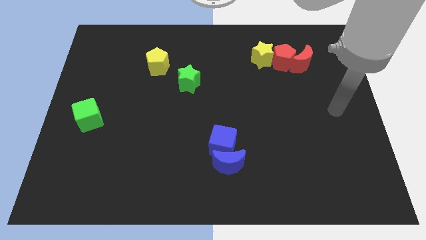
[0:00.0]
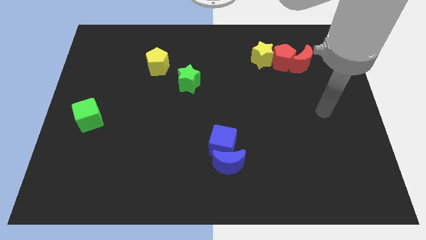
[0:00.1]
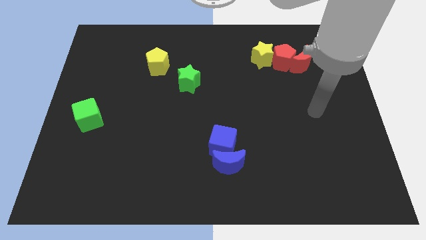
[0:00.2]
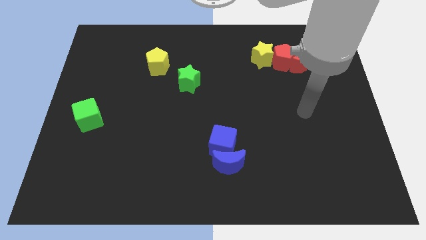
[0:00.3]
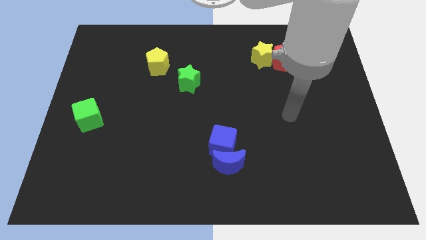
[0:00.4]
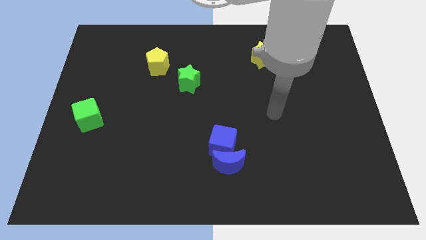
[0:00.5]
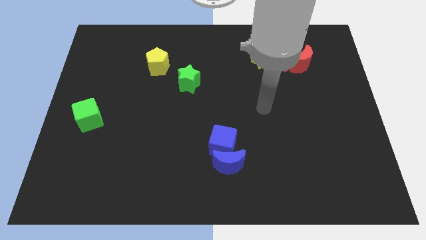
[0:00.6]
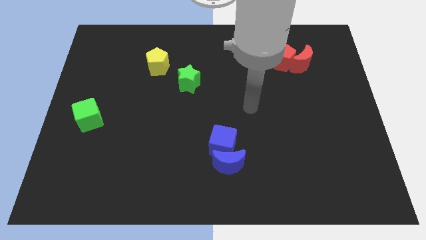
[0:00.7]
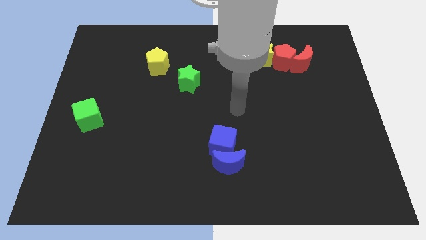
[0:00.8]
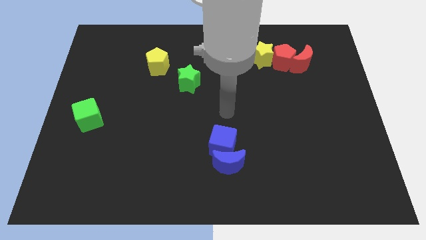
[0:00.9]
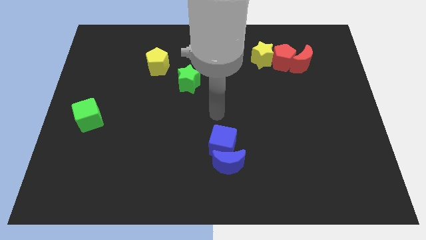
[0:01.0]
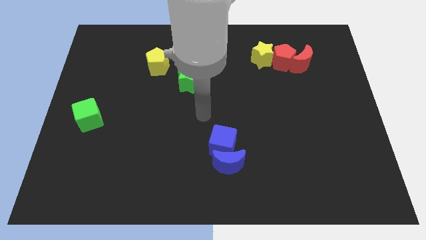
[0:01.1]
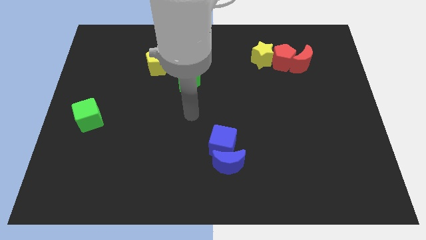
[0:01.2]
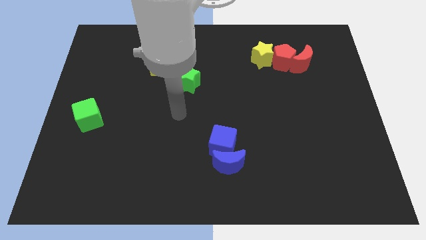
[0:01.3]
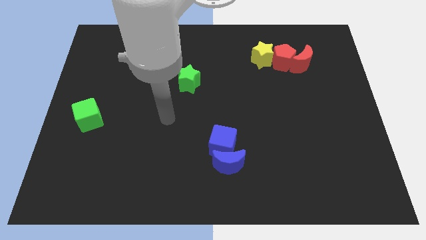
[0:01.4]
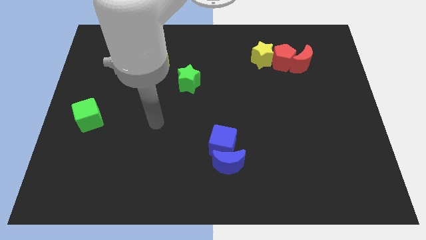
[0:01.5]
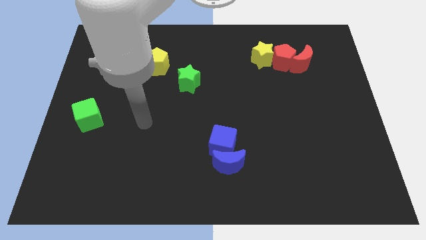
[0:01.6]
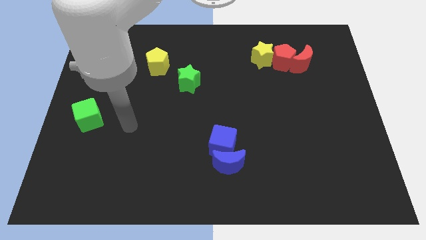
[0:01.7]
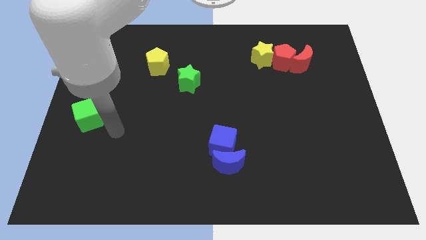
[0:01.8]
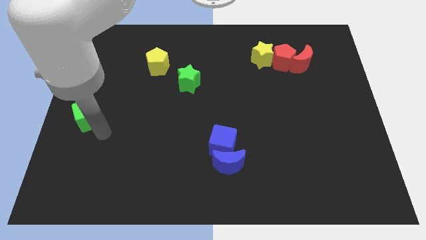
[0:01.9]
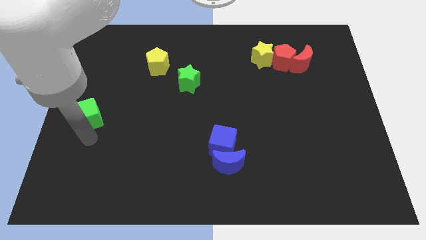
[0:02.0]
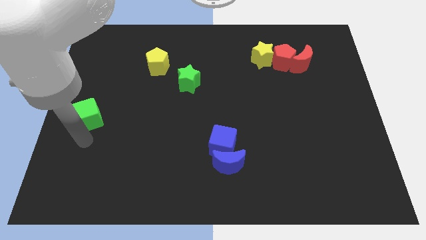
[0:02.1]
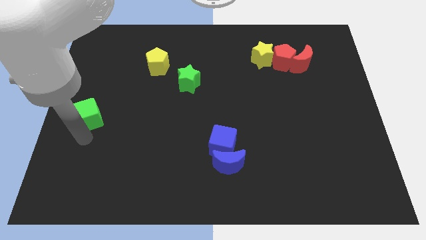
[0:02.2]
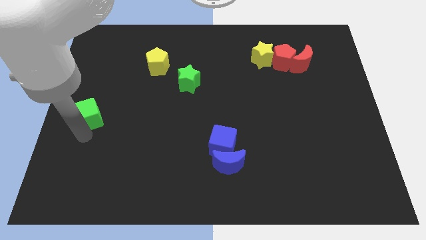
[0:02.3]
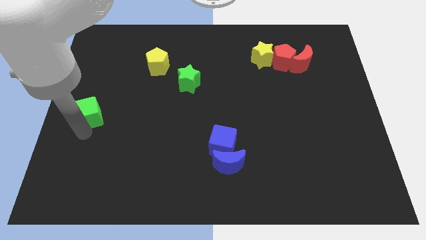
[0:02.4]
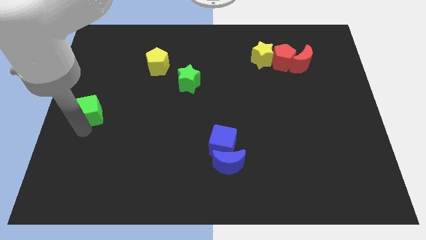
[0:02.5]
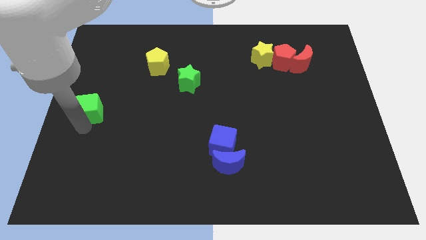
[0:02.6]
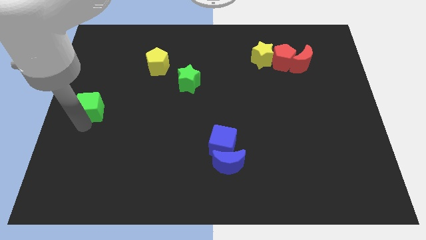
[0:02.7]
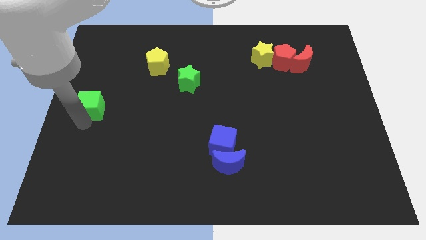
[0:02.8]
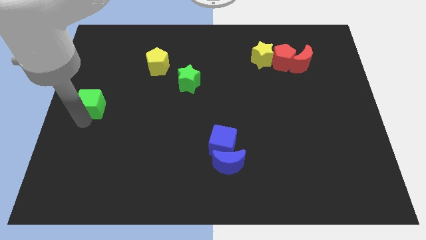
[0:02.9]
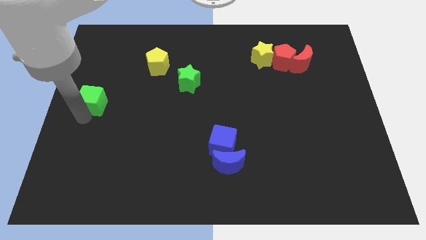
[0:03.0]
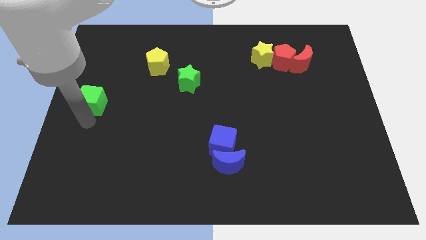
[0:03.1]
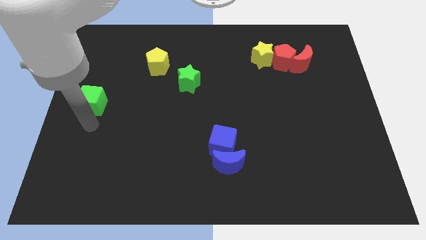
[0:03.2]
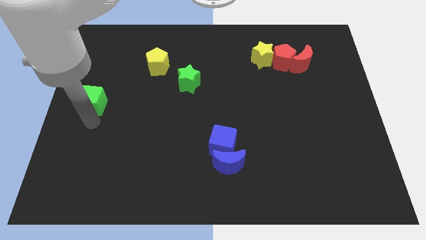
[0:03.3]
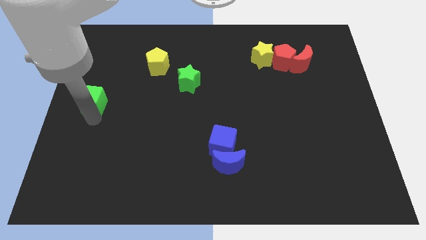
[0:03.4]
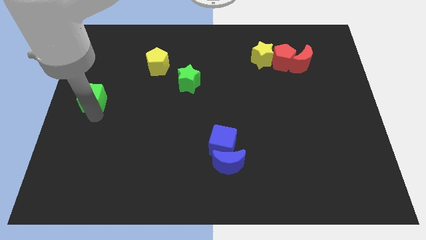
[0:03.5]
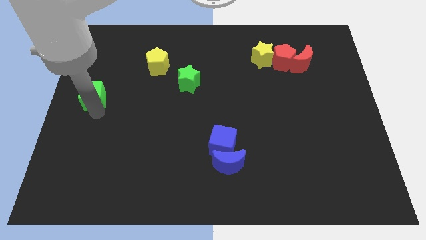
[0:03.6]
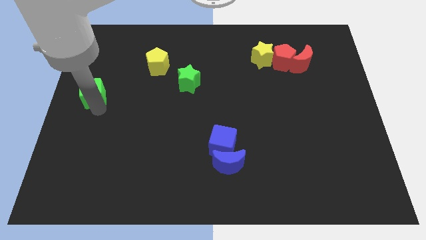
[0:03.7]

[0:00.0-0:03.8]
move the green cube upwards slightly

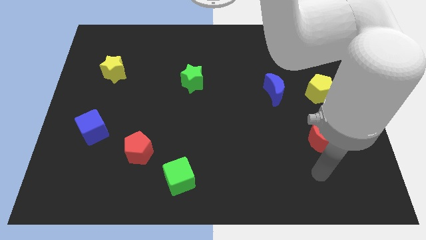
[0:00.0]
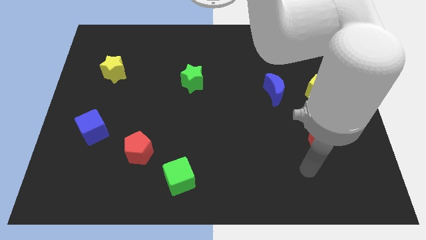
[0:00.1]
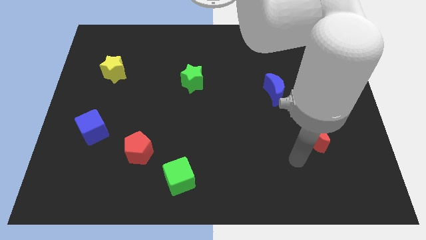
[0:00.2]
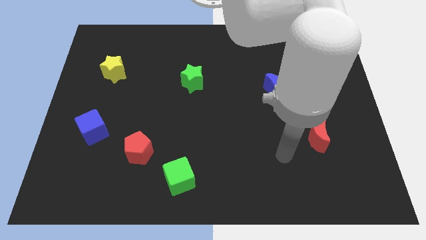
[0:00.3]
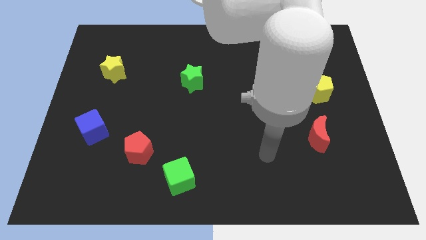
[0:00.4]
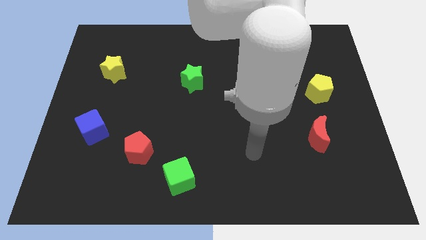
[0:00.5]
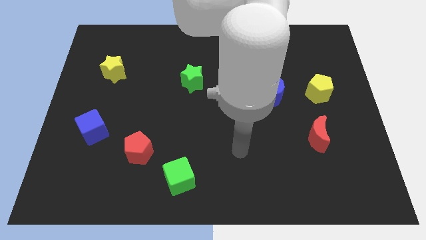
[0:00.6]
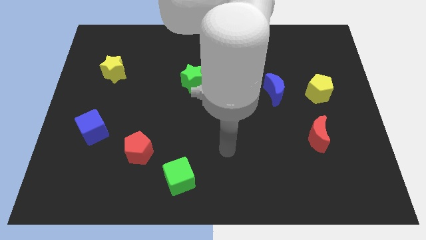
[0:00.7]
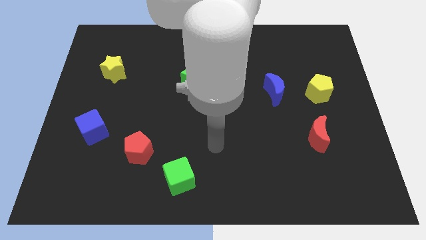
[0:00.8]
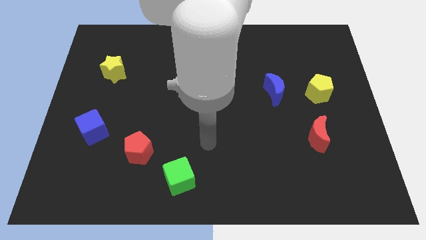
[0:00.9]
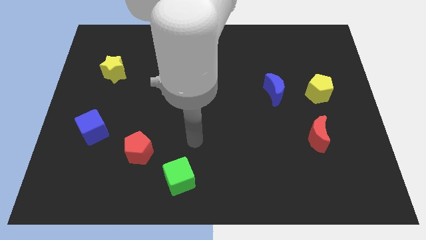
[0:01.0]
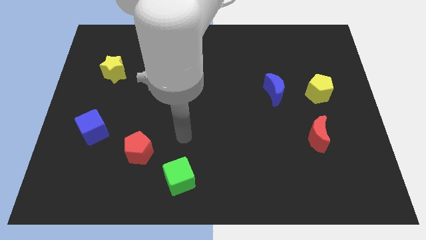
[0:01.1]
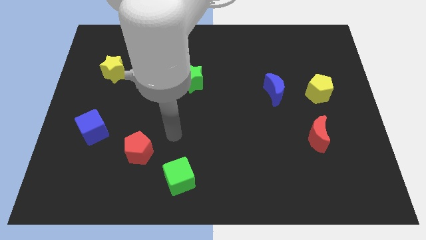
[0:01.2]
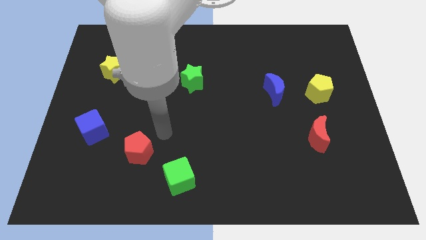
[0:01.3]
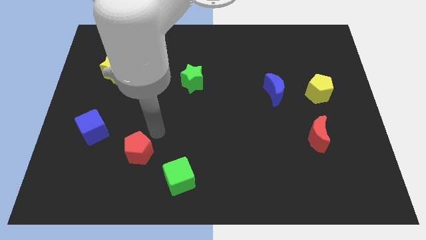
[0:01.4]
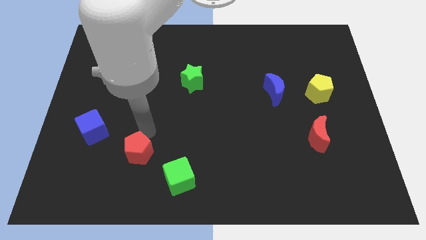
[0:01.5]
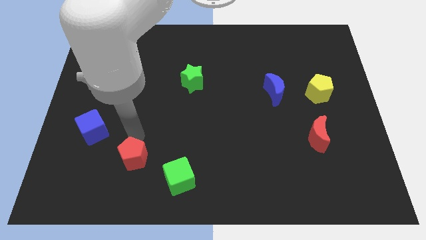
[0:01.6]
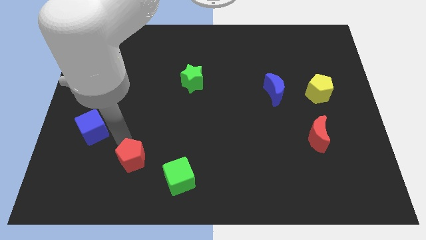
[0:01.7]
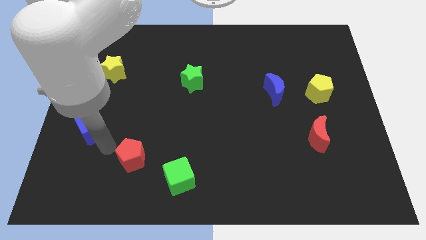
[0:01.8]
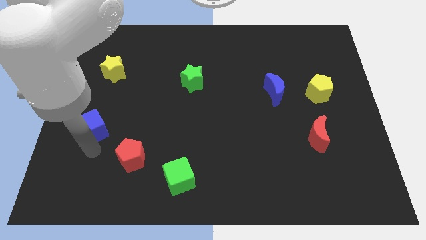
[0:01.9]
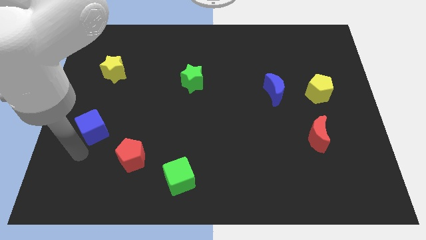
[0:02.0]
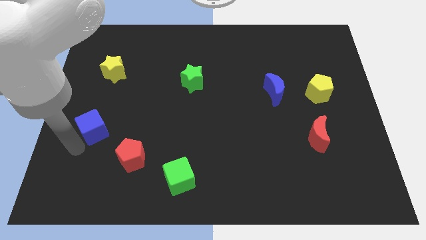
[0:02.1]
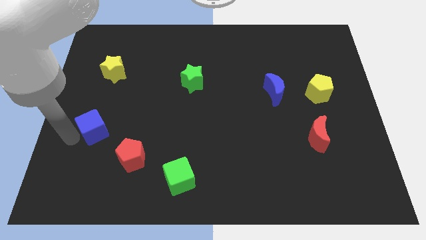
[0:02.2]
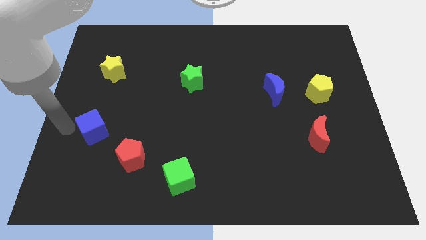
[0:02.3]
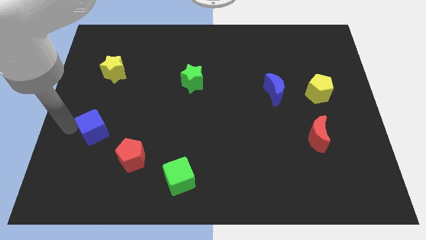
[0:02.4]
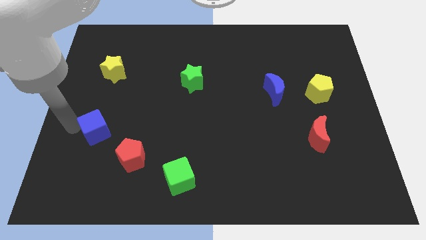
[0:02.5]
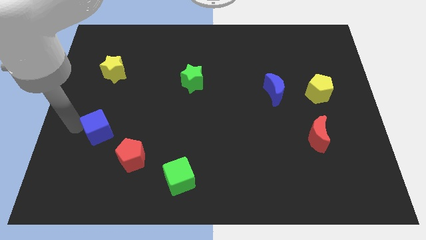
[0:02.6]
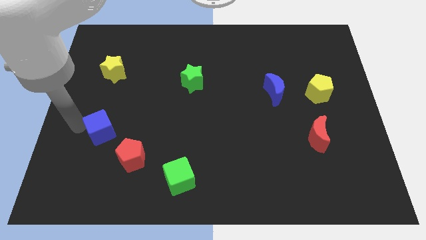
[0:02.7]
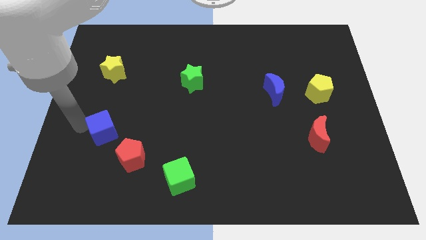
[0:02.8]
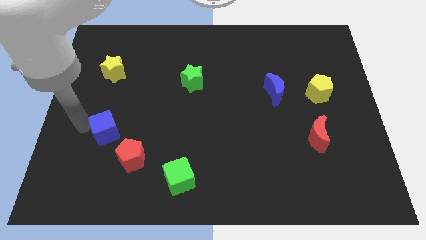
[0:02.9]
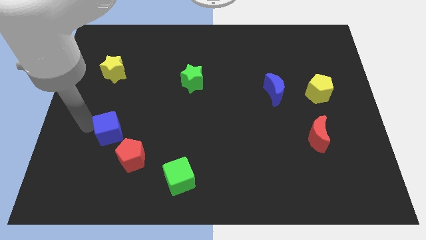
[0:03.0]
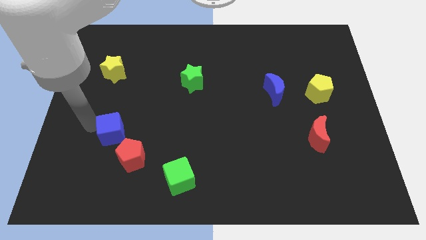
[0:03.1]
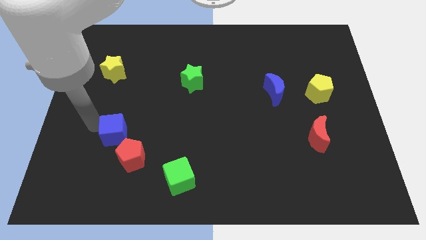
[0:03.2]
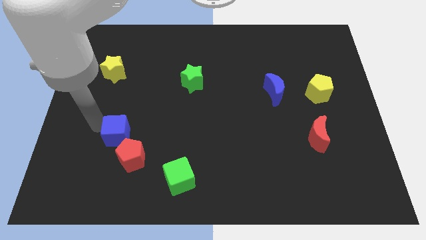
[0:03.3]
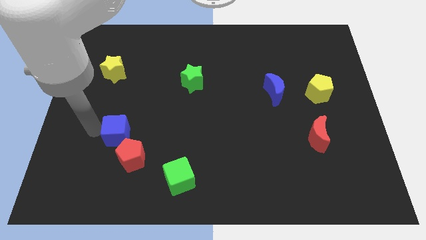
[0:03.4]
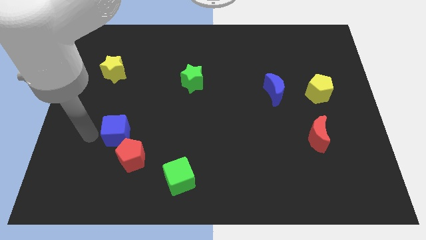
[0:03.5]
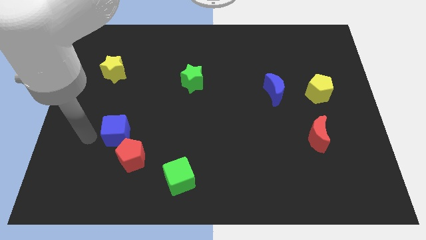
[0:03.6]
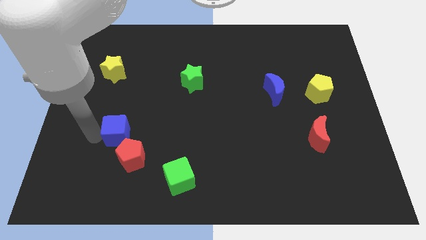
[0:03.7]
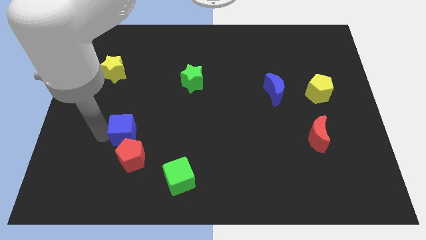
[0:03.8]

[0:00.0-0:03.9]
move the blue cube right somewhat

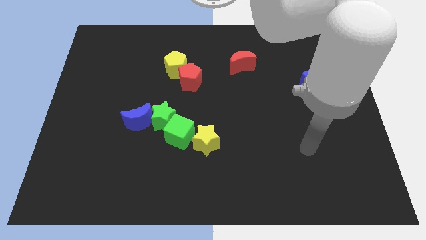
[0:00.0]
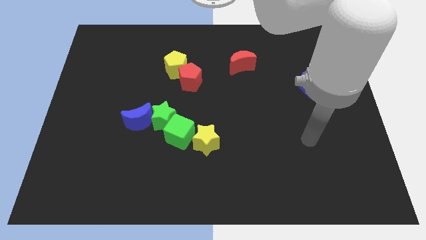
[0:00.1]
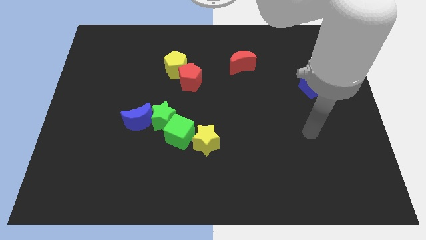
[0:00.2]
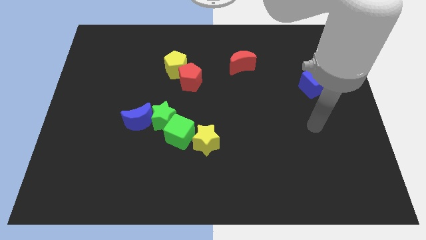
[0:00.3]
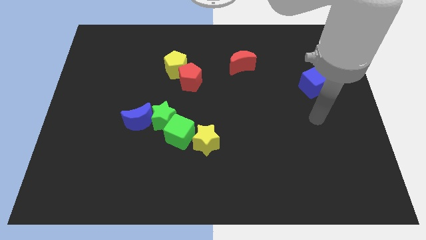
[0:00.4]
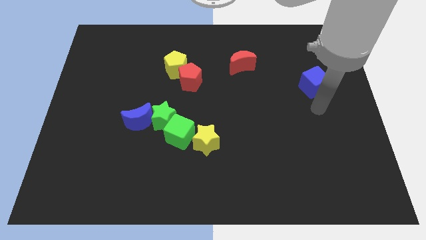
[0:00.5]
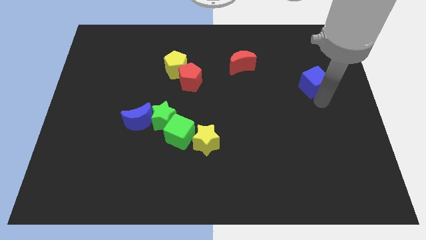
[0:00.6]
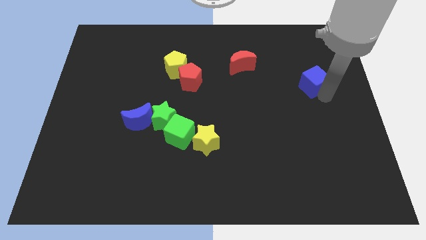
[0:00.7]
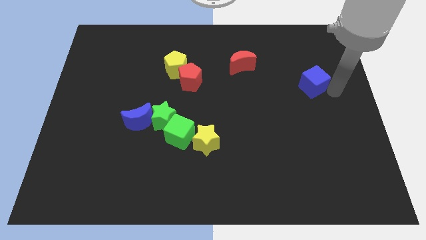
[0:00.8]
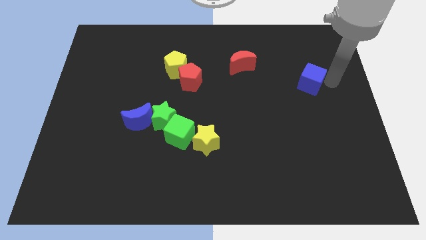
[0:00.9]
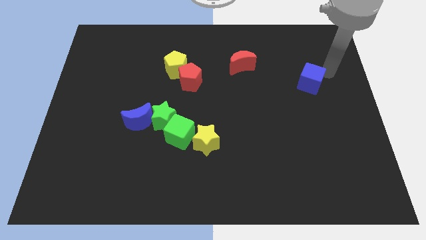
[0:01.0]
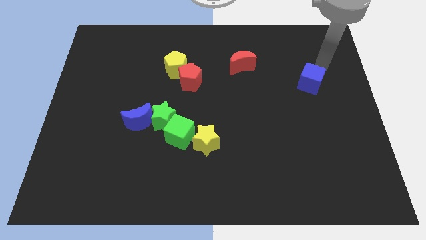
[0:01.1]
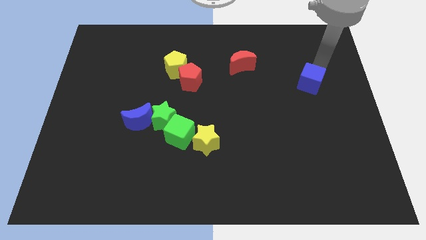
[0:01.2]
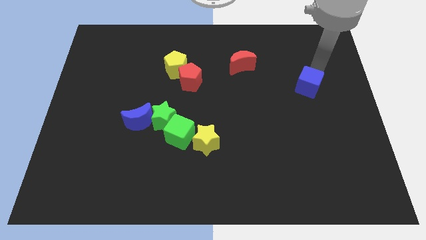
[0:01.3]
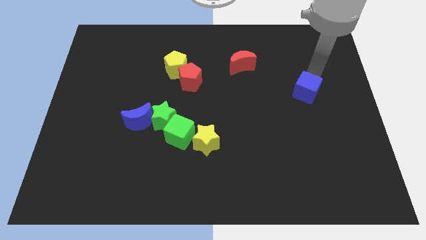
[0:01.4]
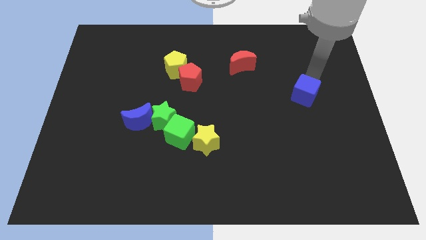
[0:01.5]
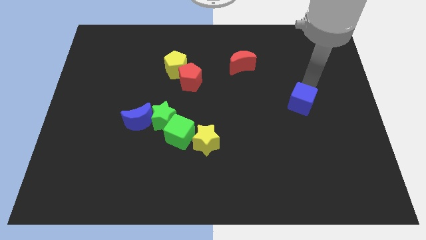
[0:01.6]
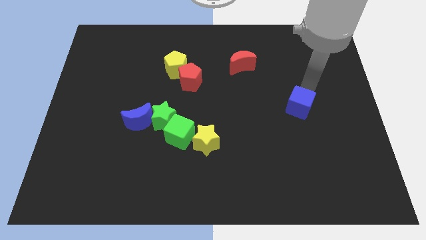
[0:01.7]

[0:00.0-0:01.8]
slightly move the blue cube down and left
